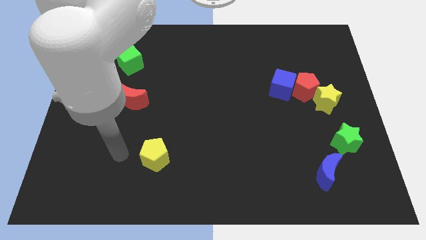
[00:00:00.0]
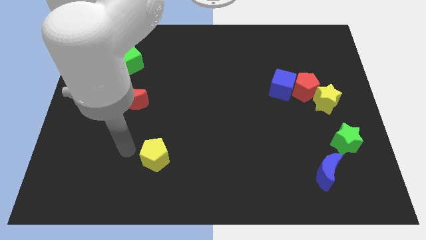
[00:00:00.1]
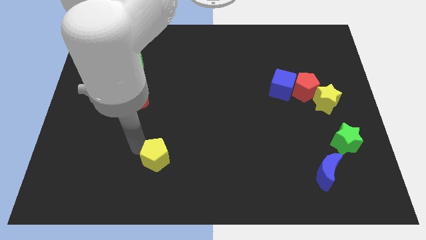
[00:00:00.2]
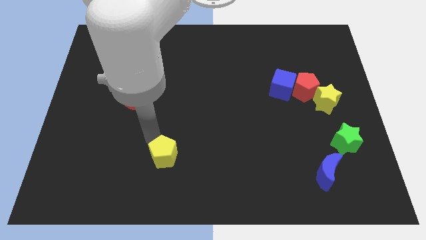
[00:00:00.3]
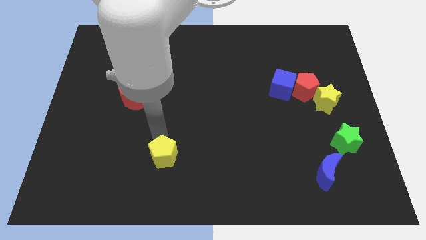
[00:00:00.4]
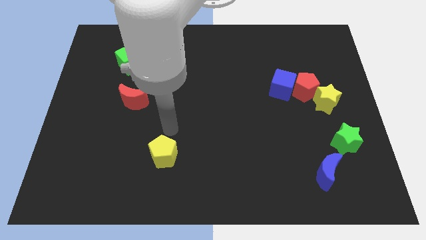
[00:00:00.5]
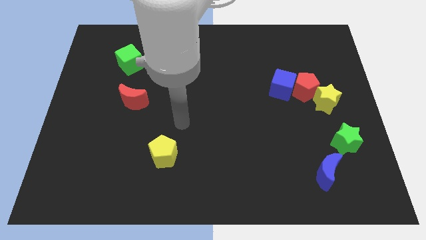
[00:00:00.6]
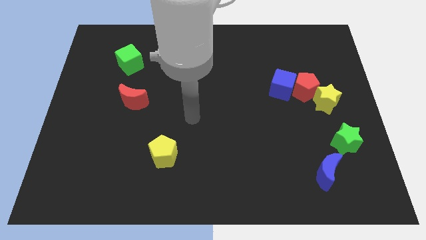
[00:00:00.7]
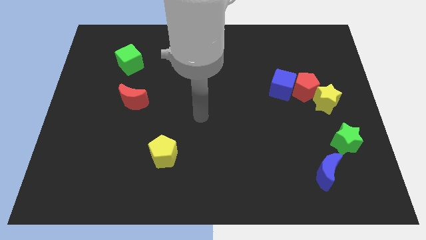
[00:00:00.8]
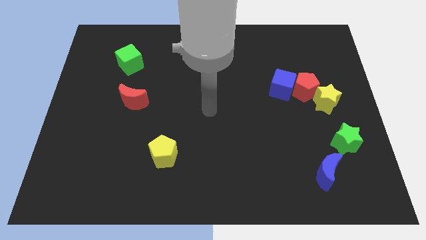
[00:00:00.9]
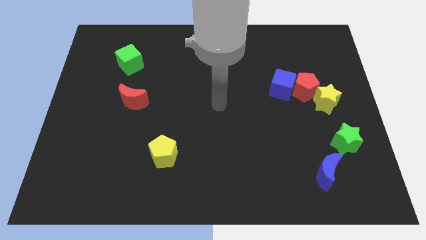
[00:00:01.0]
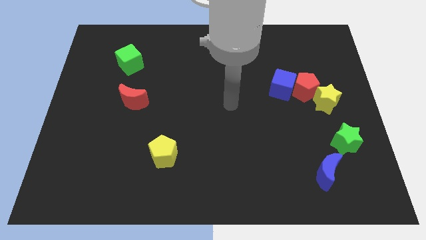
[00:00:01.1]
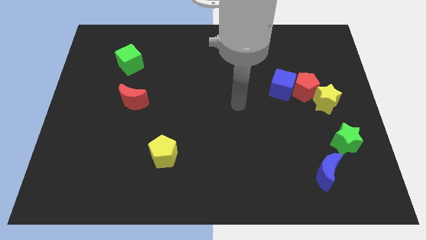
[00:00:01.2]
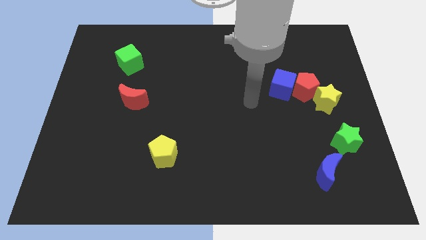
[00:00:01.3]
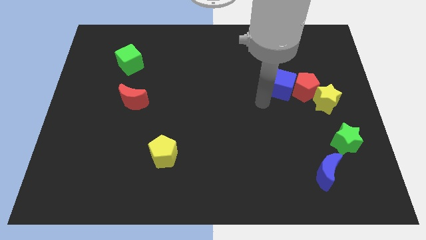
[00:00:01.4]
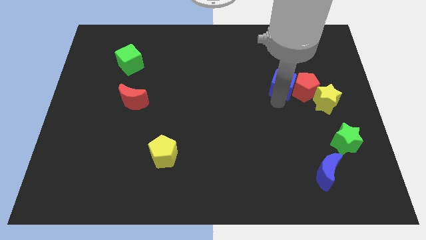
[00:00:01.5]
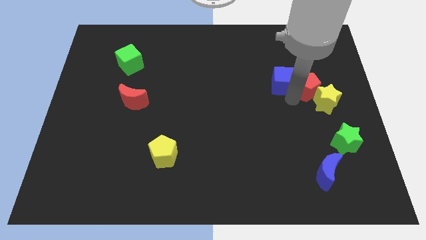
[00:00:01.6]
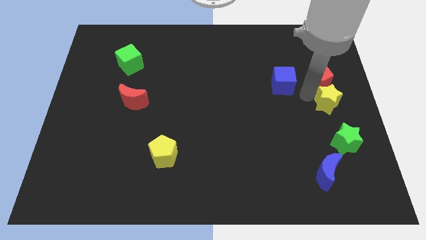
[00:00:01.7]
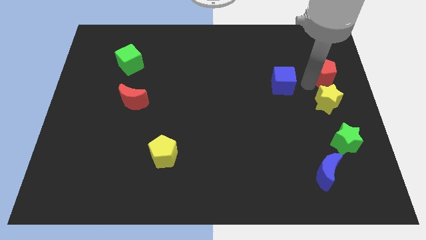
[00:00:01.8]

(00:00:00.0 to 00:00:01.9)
move the blue cube away from the red pentagon

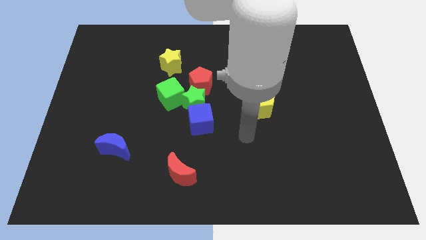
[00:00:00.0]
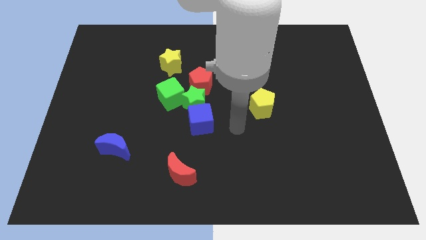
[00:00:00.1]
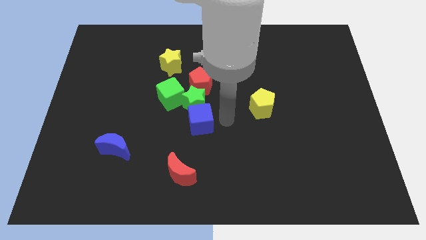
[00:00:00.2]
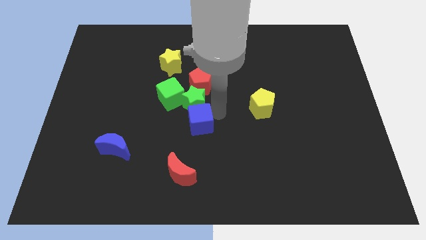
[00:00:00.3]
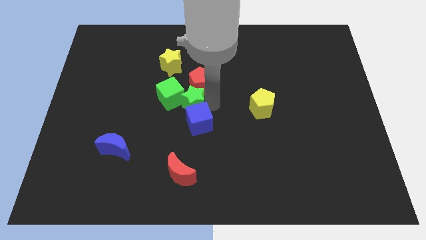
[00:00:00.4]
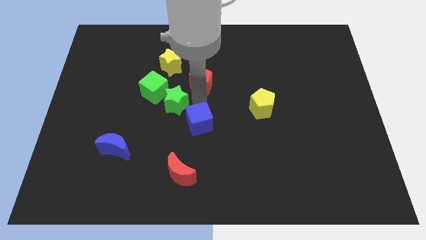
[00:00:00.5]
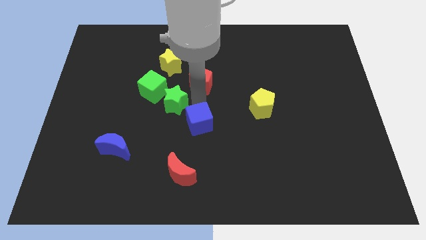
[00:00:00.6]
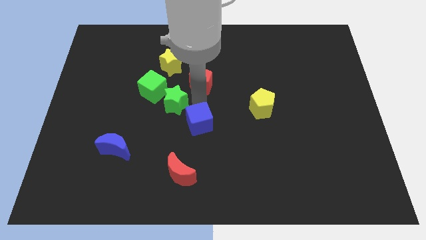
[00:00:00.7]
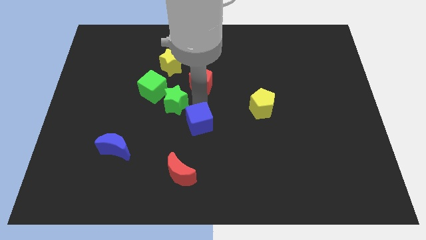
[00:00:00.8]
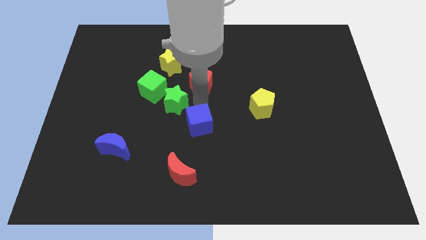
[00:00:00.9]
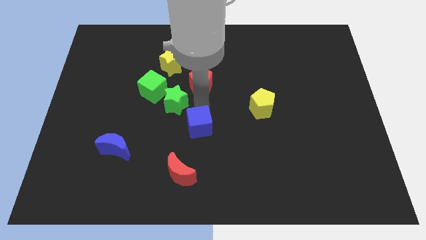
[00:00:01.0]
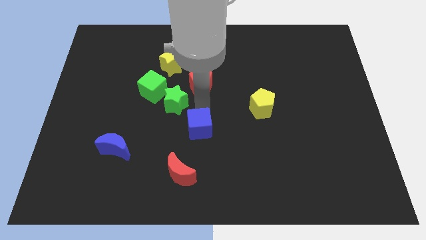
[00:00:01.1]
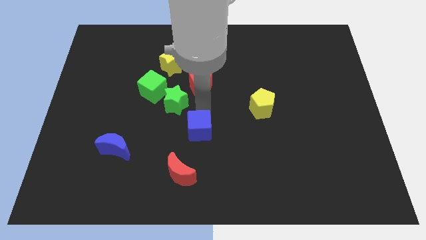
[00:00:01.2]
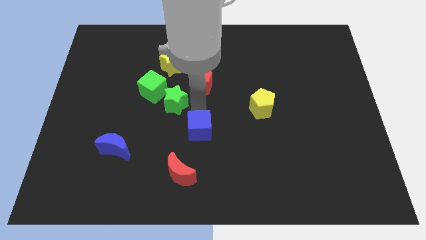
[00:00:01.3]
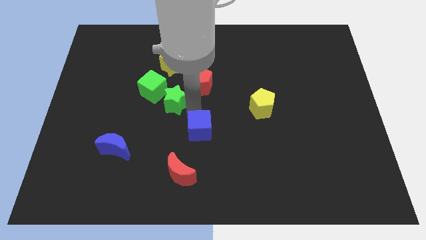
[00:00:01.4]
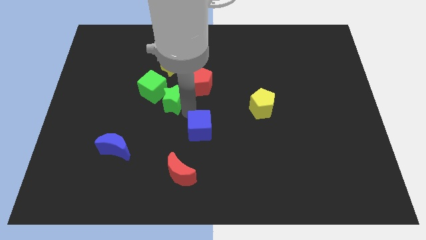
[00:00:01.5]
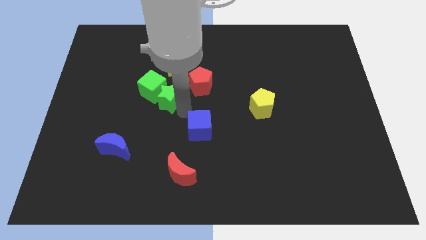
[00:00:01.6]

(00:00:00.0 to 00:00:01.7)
move the blue cube away from the green star

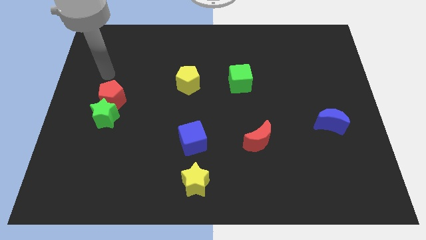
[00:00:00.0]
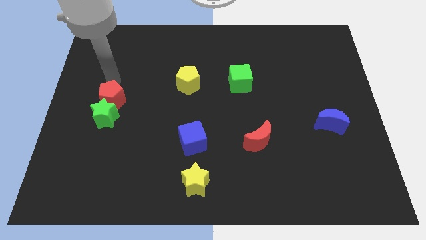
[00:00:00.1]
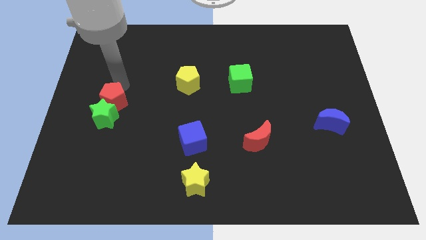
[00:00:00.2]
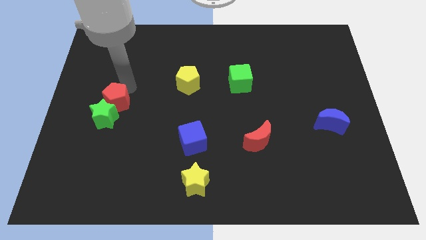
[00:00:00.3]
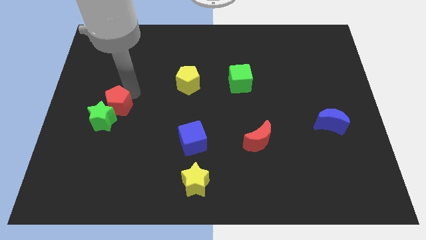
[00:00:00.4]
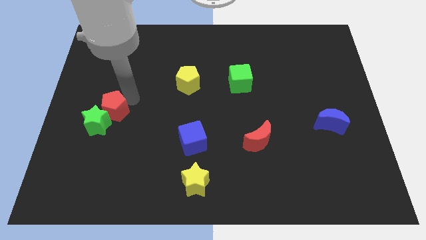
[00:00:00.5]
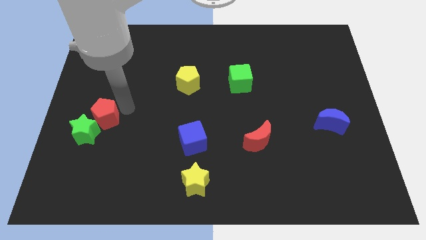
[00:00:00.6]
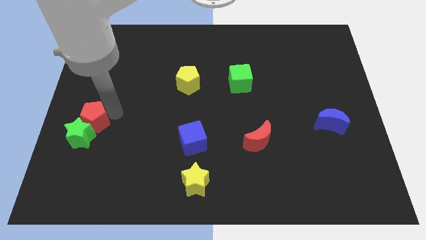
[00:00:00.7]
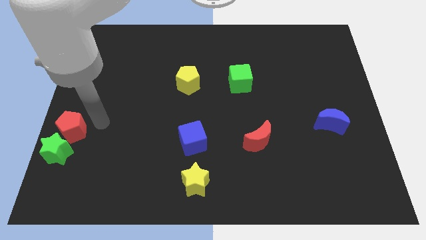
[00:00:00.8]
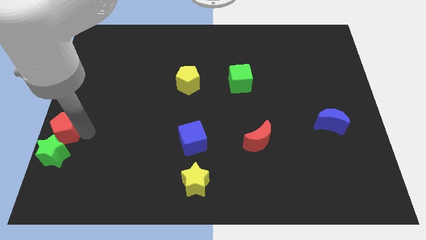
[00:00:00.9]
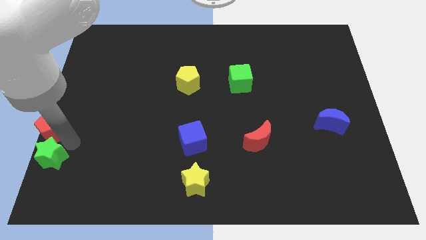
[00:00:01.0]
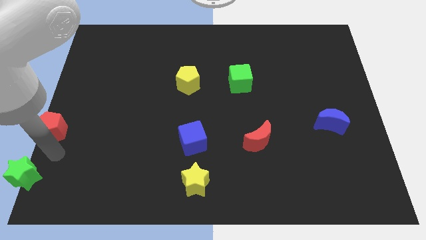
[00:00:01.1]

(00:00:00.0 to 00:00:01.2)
separate the red pentagon from the green star

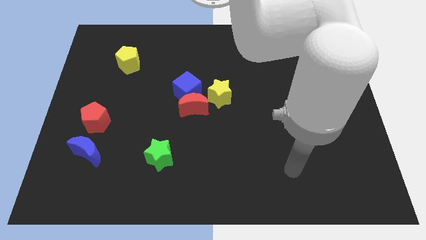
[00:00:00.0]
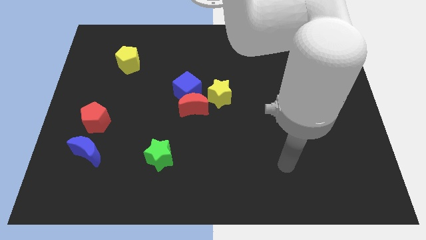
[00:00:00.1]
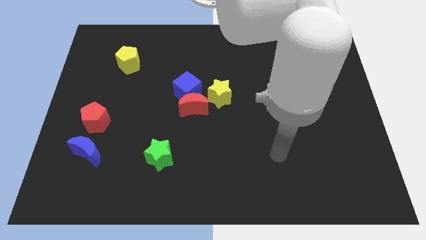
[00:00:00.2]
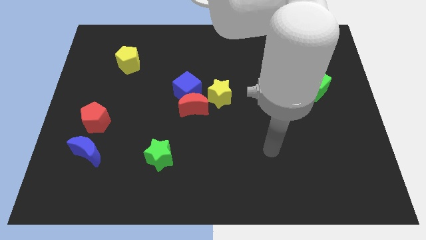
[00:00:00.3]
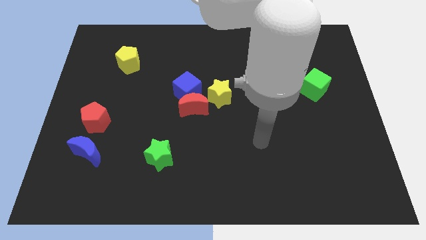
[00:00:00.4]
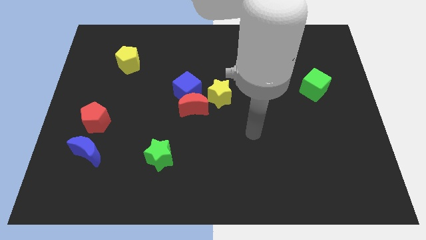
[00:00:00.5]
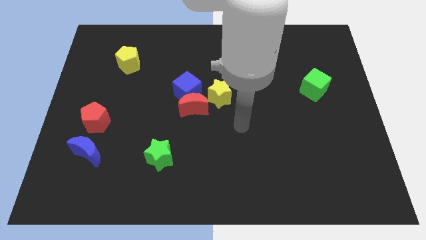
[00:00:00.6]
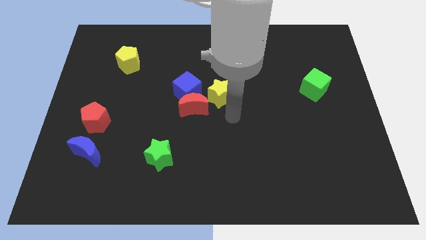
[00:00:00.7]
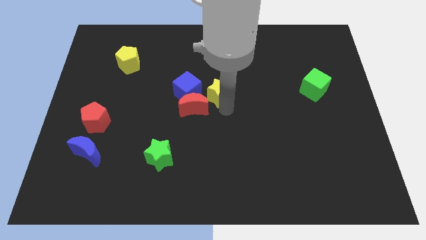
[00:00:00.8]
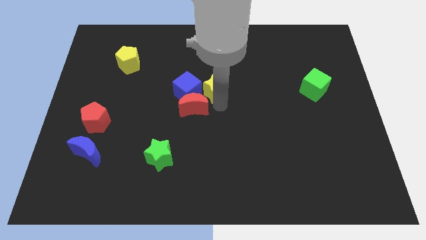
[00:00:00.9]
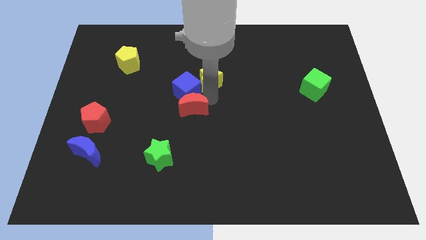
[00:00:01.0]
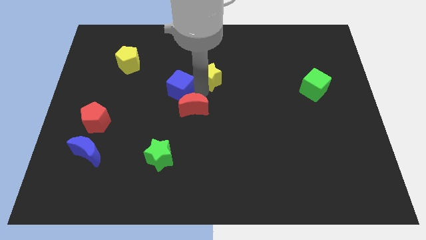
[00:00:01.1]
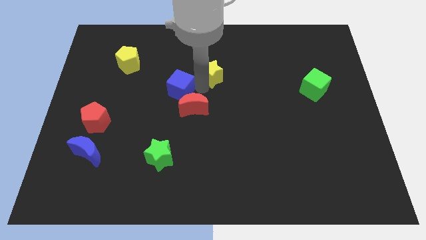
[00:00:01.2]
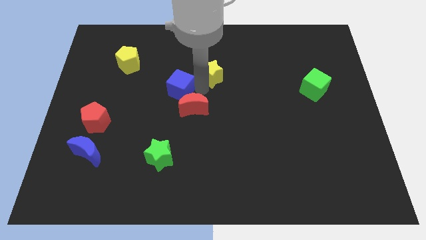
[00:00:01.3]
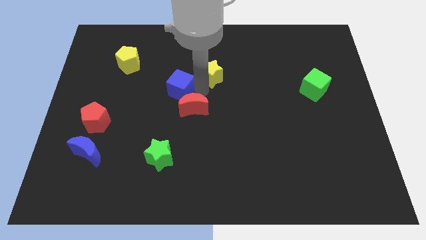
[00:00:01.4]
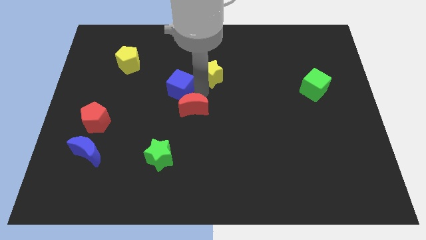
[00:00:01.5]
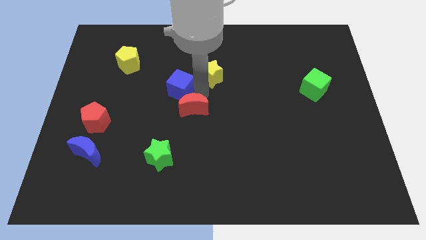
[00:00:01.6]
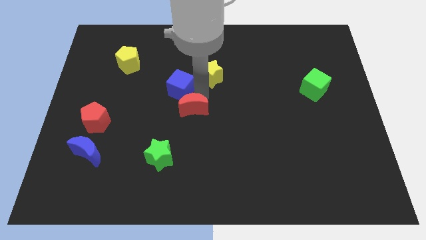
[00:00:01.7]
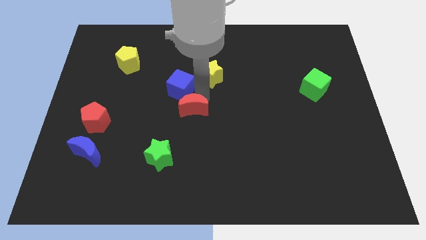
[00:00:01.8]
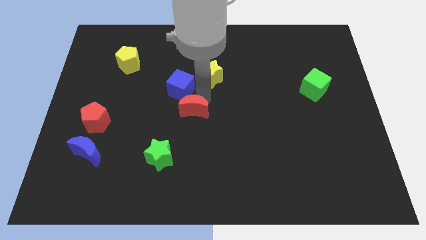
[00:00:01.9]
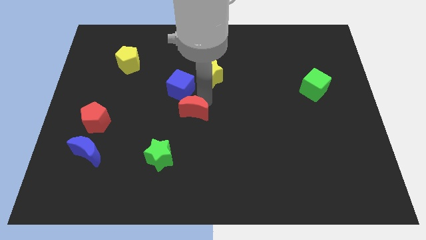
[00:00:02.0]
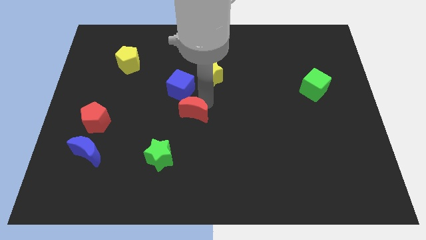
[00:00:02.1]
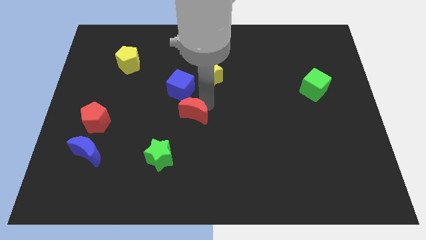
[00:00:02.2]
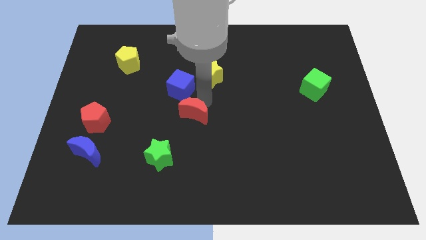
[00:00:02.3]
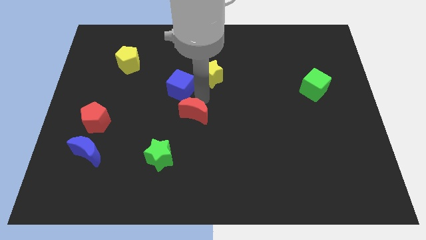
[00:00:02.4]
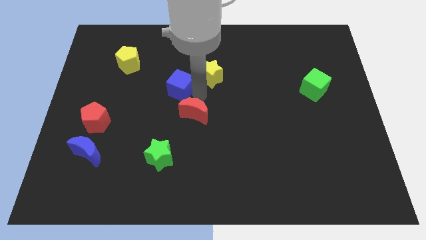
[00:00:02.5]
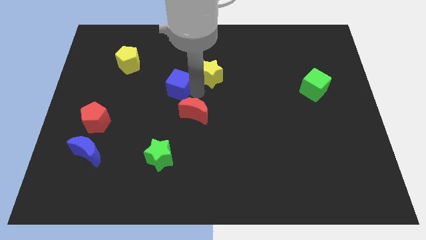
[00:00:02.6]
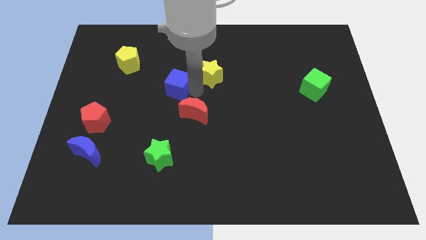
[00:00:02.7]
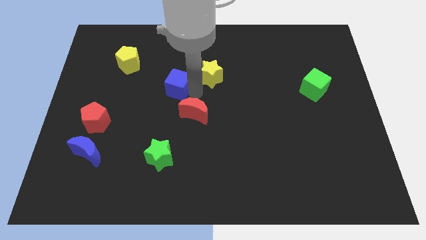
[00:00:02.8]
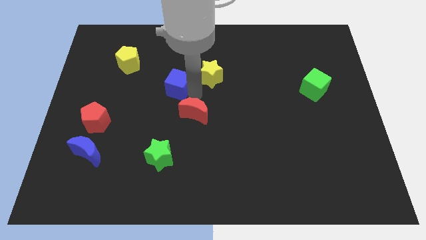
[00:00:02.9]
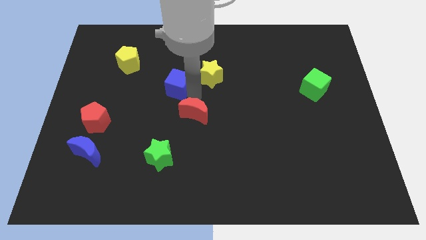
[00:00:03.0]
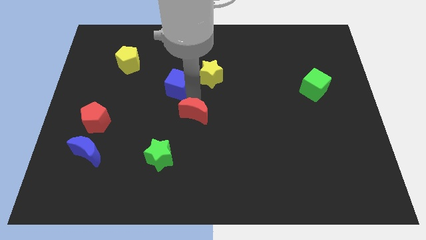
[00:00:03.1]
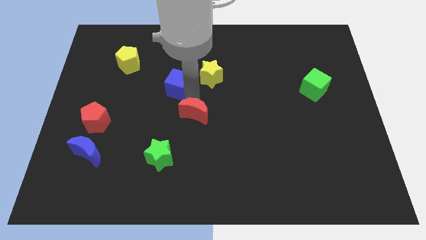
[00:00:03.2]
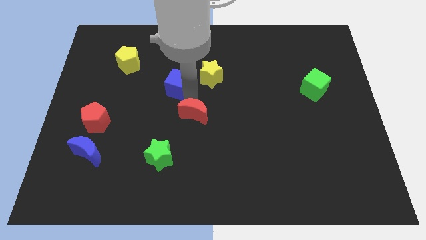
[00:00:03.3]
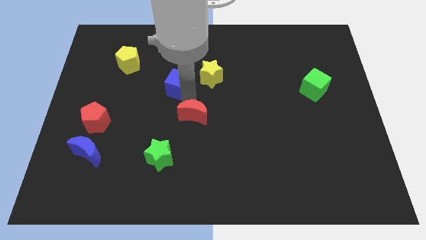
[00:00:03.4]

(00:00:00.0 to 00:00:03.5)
separate the red moon from the blue cube and yellow star

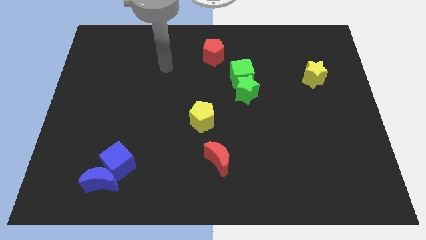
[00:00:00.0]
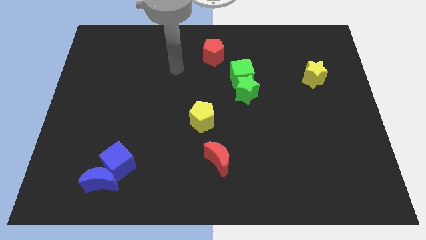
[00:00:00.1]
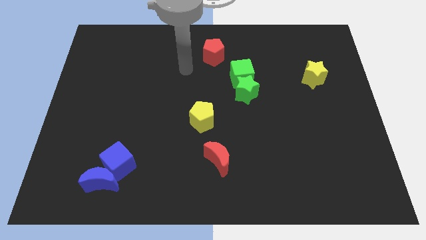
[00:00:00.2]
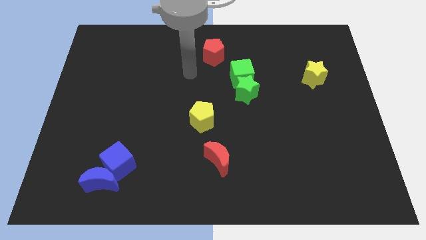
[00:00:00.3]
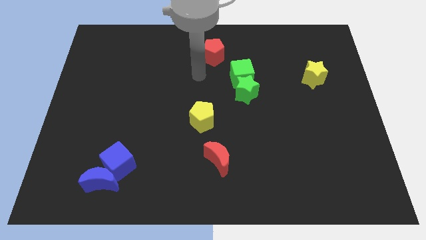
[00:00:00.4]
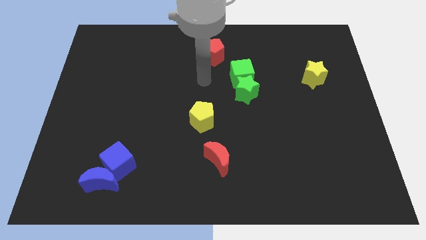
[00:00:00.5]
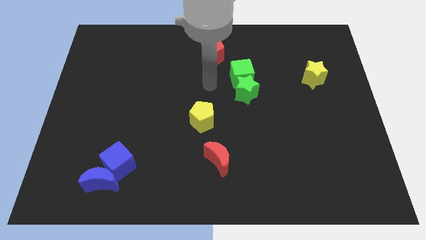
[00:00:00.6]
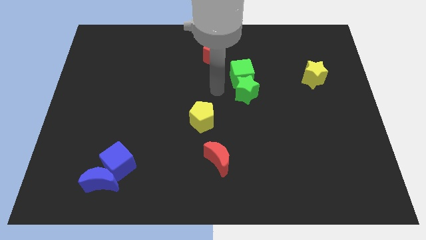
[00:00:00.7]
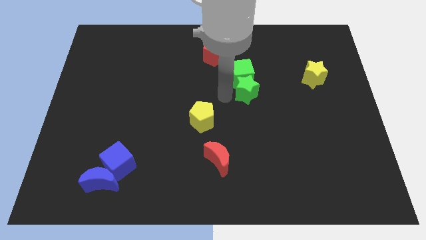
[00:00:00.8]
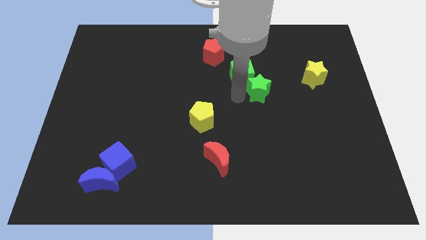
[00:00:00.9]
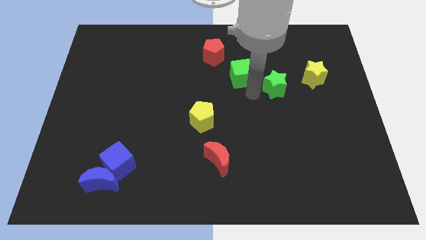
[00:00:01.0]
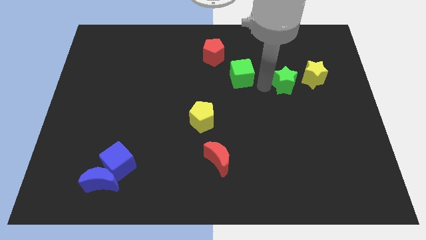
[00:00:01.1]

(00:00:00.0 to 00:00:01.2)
move the green cube away from the green star
